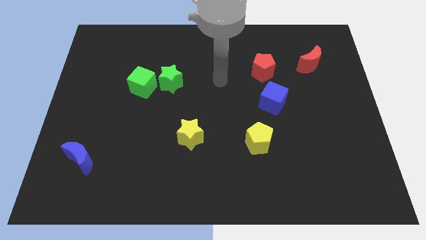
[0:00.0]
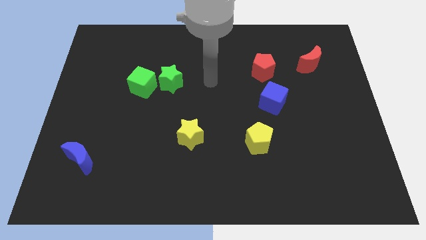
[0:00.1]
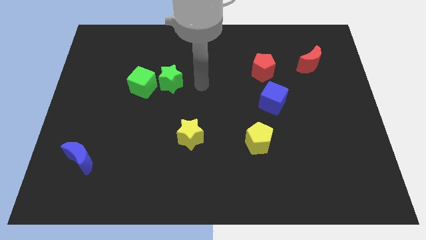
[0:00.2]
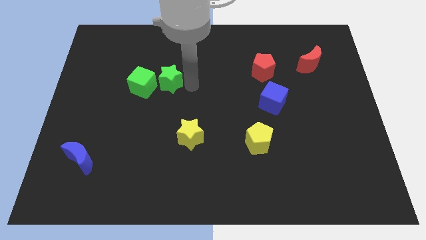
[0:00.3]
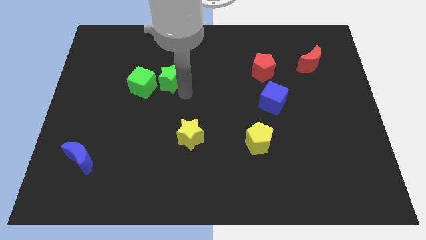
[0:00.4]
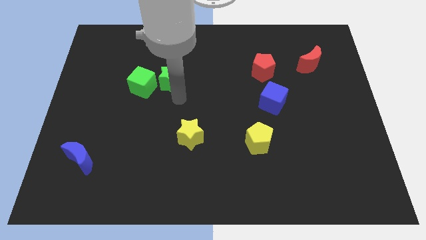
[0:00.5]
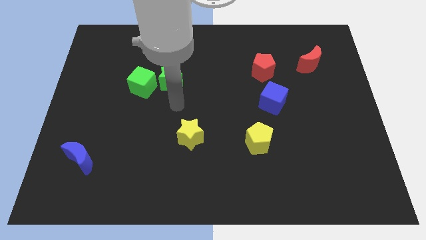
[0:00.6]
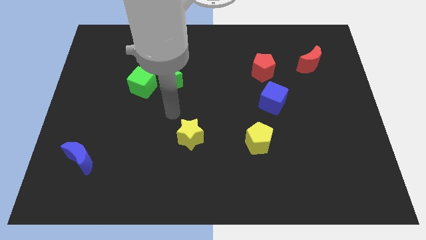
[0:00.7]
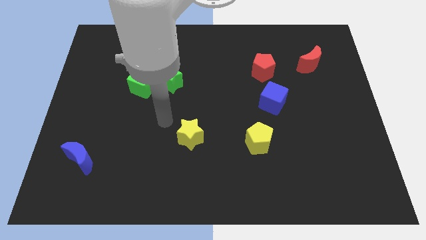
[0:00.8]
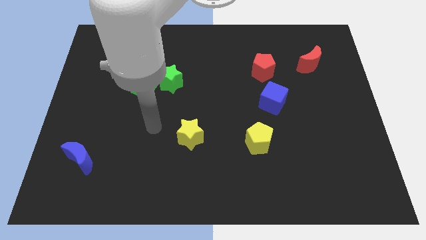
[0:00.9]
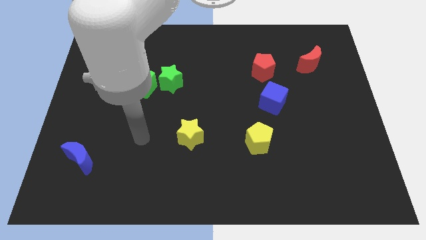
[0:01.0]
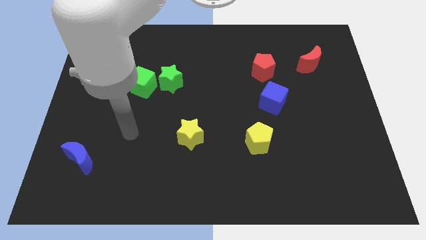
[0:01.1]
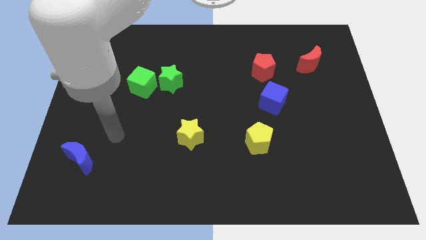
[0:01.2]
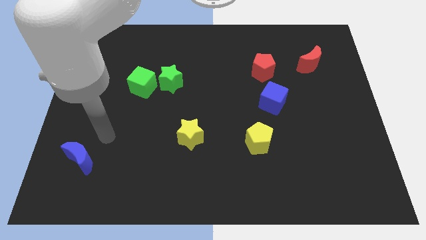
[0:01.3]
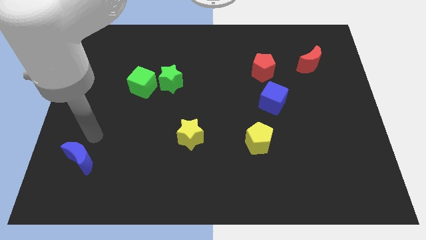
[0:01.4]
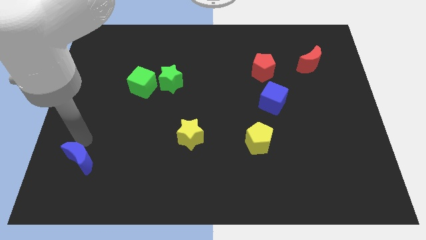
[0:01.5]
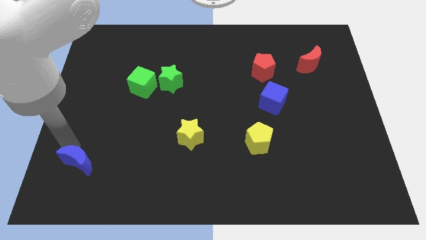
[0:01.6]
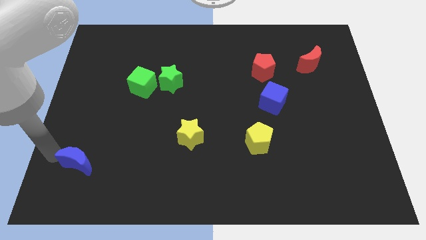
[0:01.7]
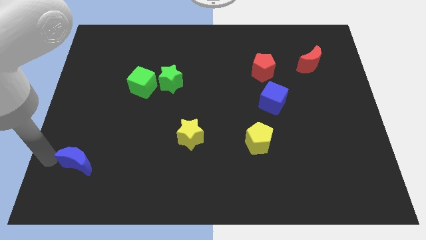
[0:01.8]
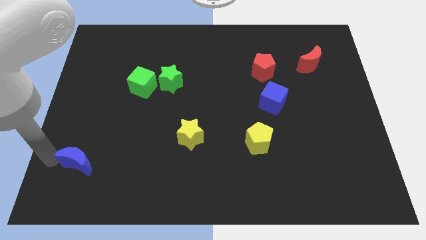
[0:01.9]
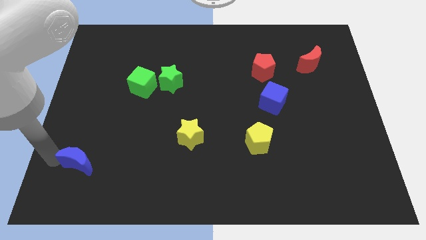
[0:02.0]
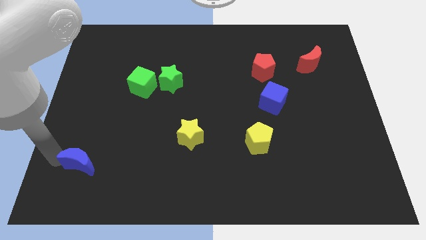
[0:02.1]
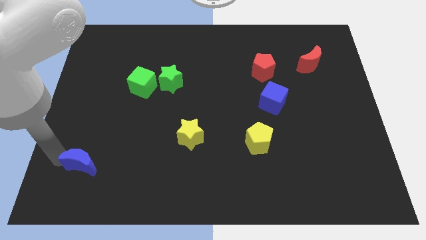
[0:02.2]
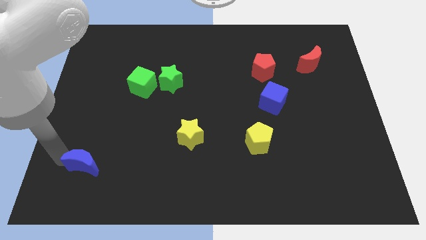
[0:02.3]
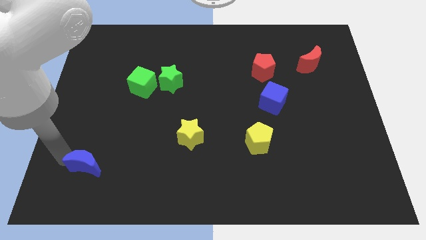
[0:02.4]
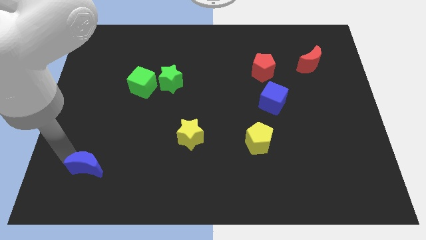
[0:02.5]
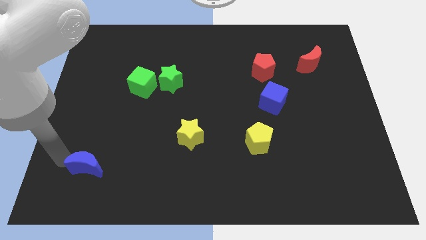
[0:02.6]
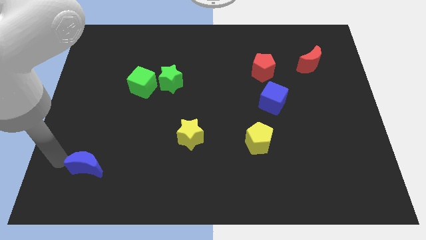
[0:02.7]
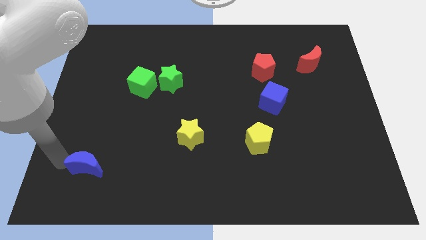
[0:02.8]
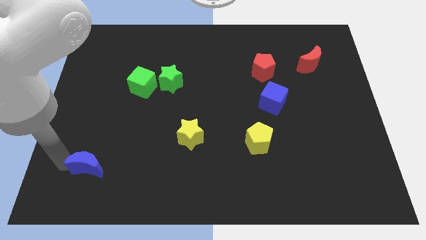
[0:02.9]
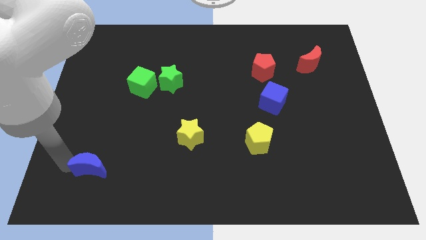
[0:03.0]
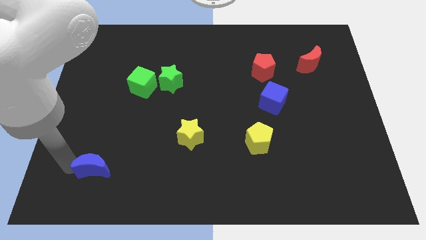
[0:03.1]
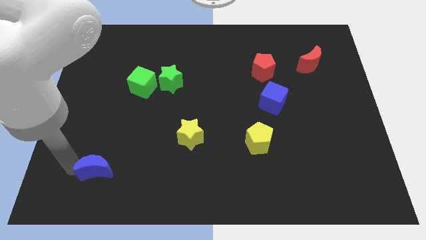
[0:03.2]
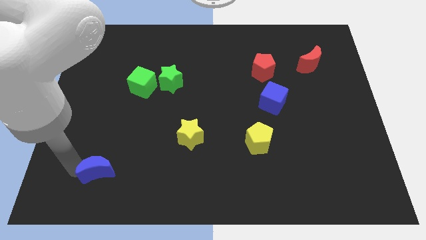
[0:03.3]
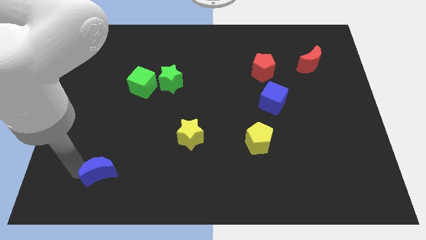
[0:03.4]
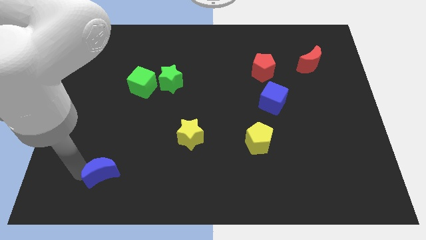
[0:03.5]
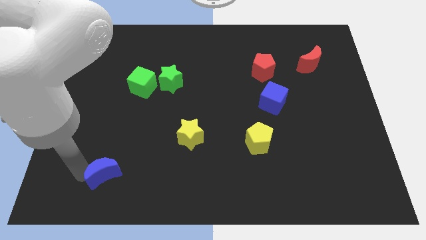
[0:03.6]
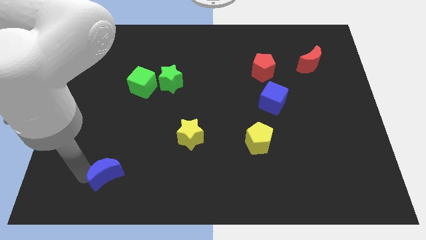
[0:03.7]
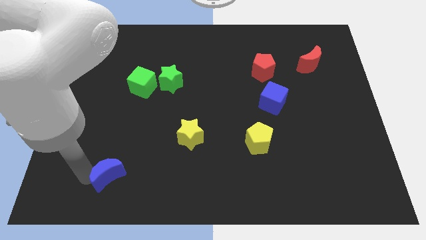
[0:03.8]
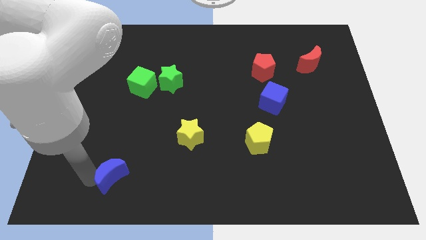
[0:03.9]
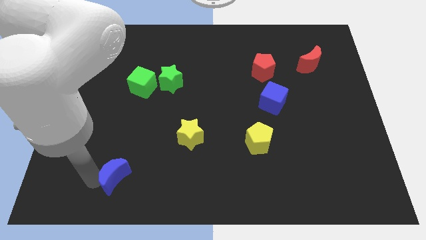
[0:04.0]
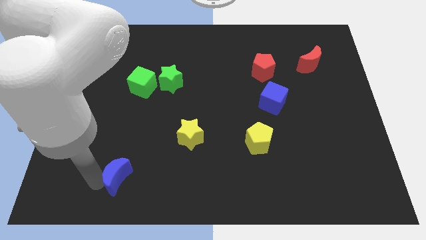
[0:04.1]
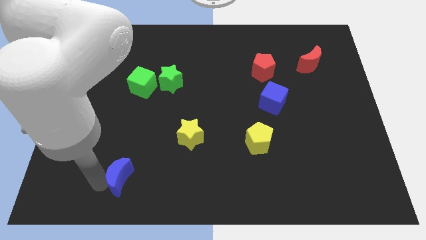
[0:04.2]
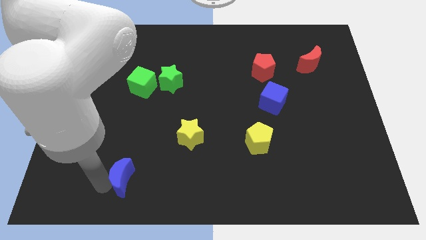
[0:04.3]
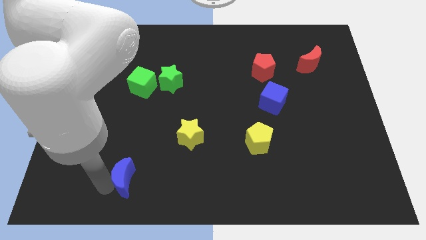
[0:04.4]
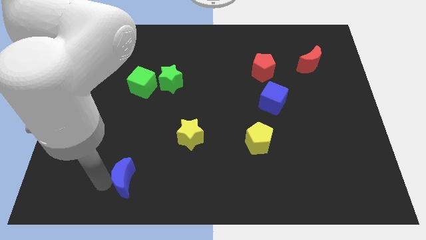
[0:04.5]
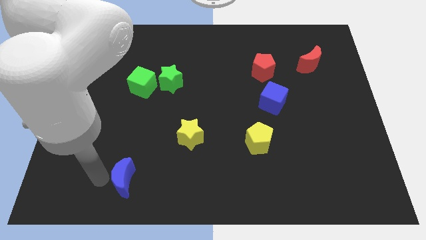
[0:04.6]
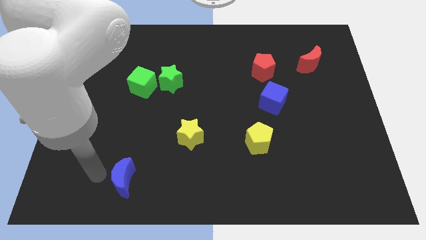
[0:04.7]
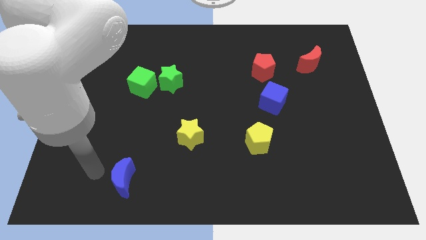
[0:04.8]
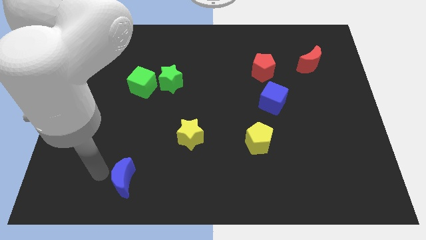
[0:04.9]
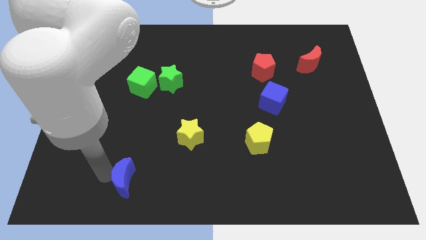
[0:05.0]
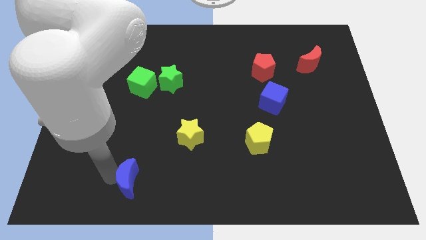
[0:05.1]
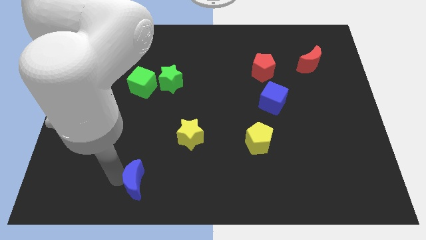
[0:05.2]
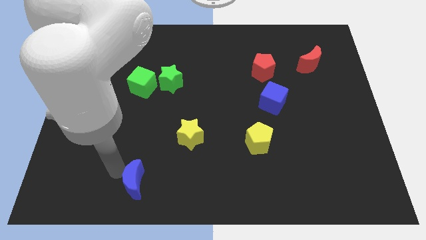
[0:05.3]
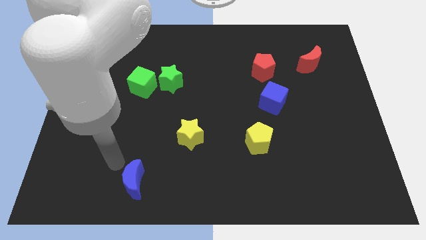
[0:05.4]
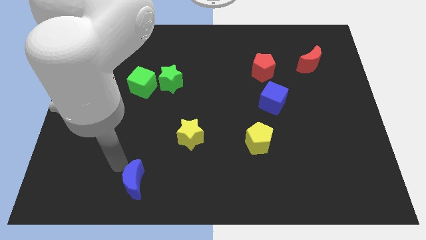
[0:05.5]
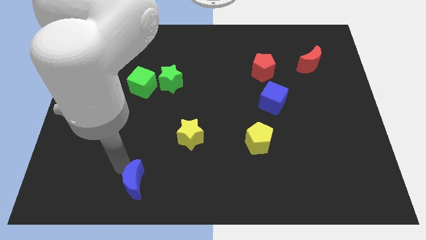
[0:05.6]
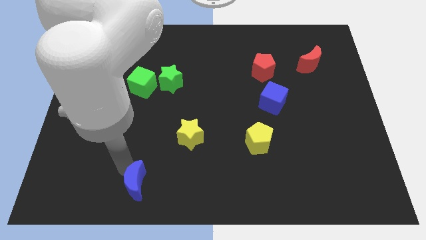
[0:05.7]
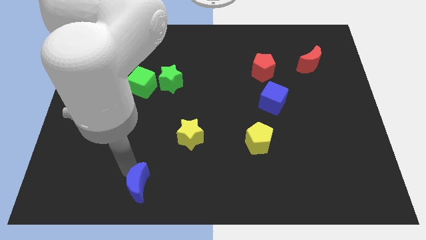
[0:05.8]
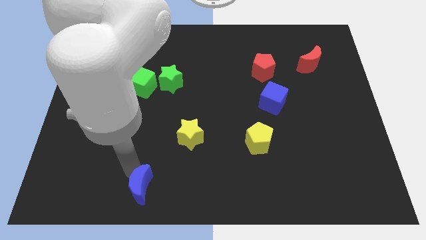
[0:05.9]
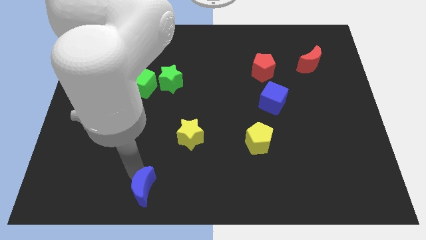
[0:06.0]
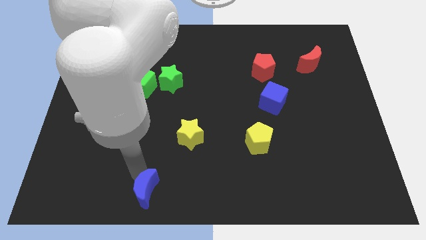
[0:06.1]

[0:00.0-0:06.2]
push the blue moon to the bottom side

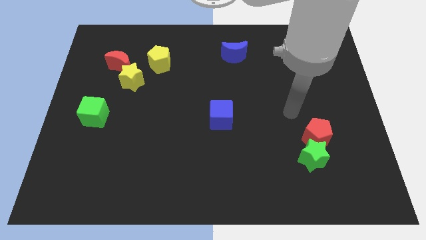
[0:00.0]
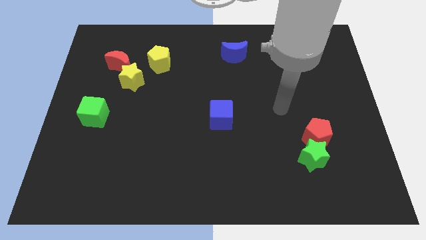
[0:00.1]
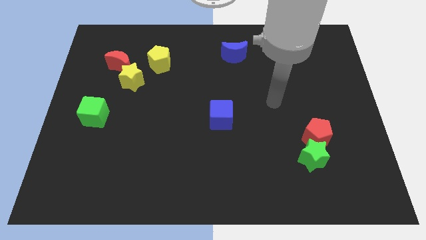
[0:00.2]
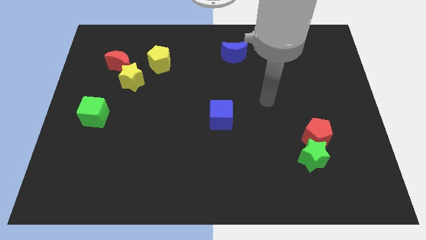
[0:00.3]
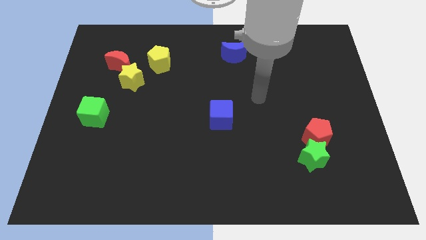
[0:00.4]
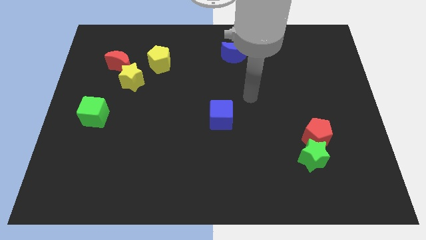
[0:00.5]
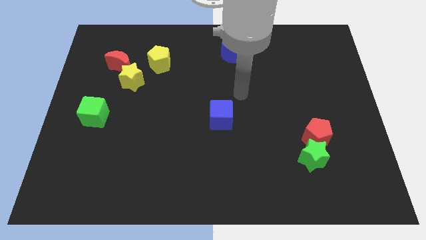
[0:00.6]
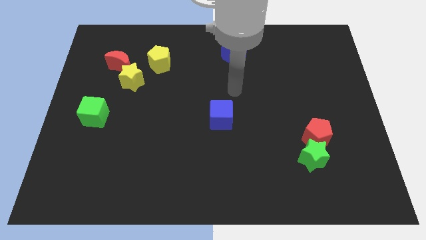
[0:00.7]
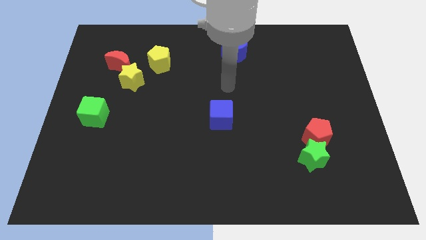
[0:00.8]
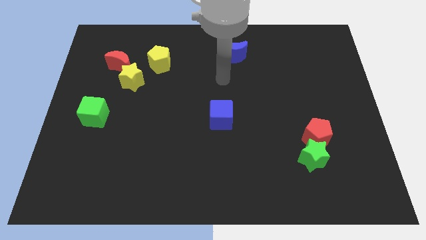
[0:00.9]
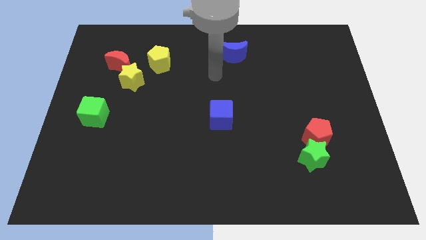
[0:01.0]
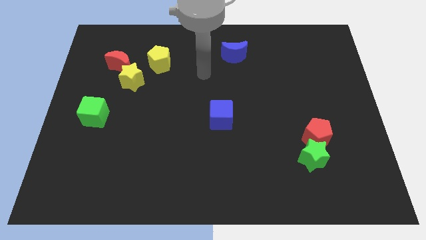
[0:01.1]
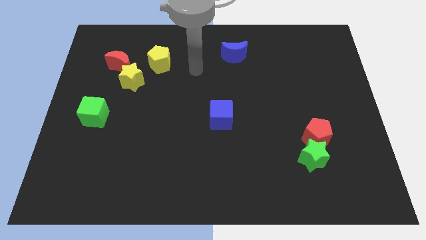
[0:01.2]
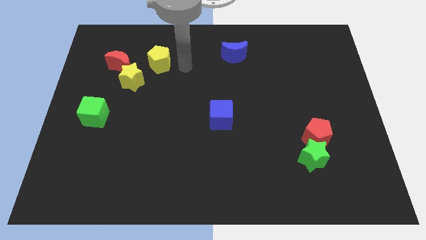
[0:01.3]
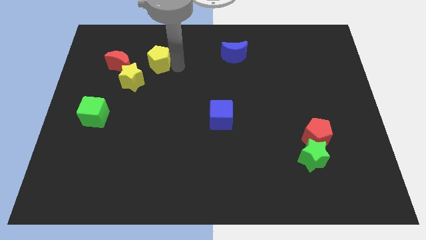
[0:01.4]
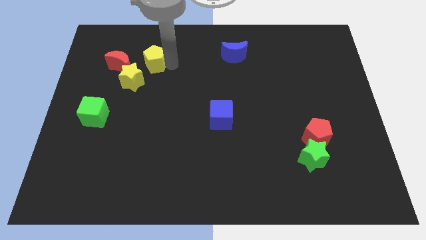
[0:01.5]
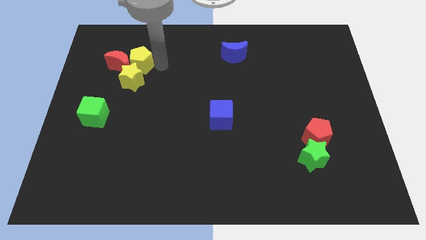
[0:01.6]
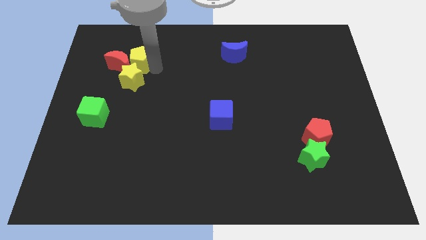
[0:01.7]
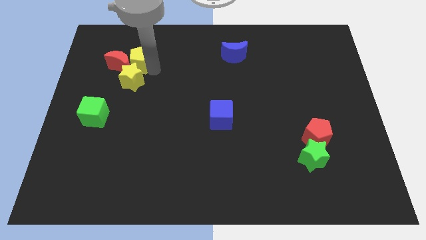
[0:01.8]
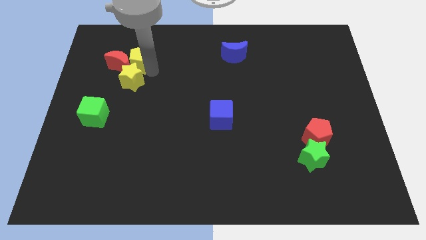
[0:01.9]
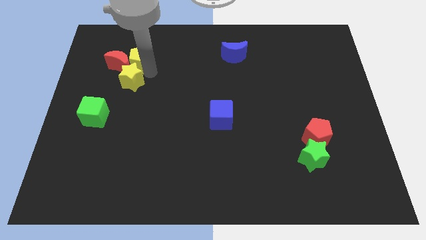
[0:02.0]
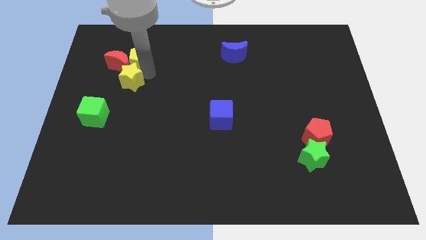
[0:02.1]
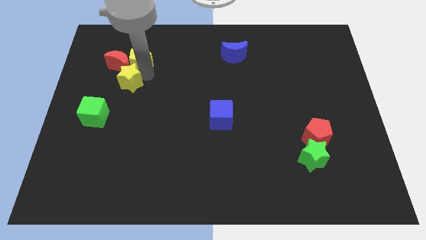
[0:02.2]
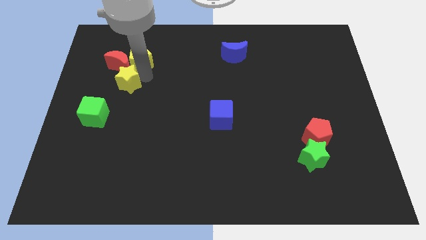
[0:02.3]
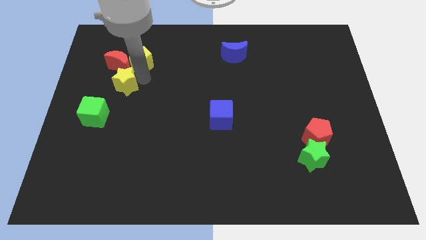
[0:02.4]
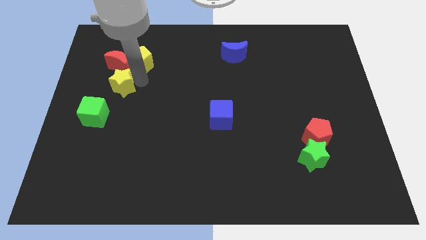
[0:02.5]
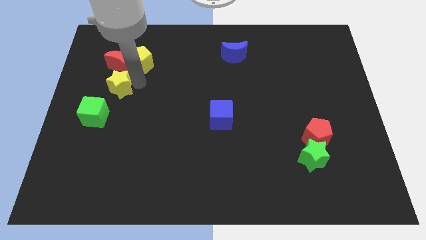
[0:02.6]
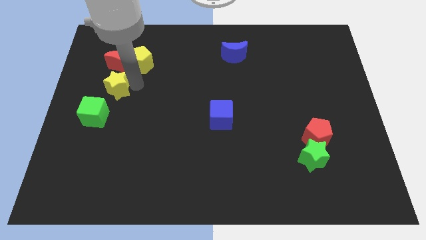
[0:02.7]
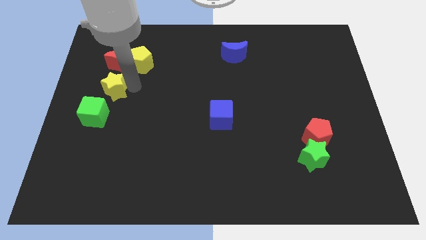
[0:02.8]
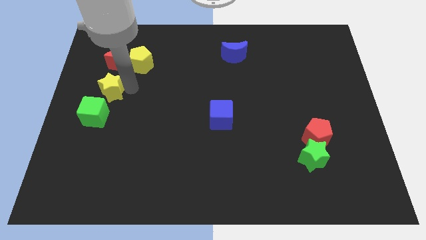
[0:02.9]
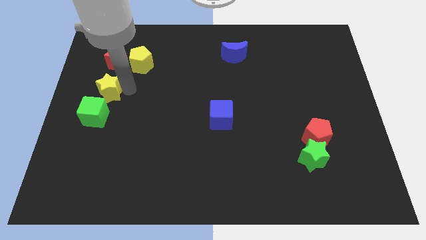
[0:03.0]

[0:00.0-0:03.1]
put the yellow star to the left side of the board
